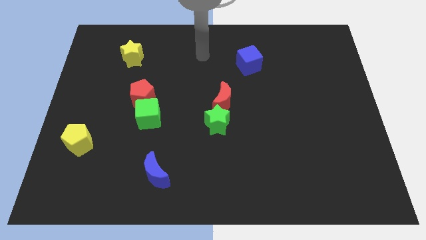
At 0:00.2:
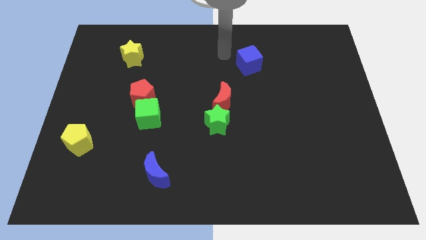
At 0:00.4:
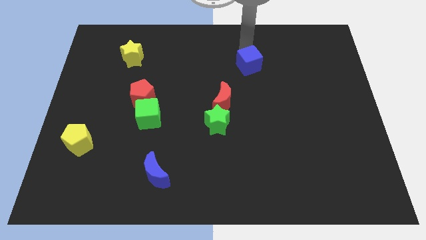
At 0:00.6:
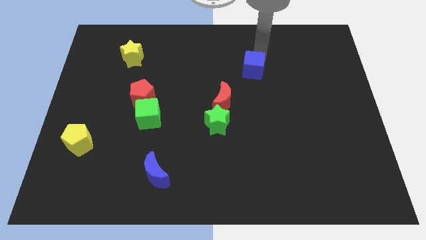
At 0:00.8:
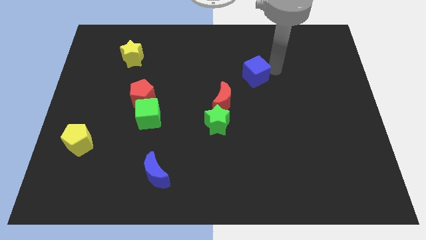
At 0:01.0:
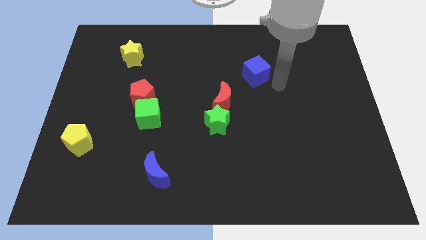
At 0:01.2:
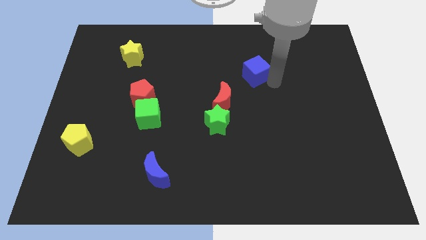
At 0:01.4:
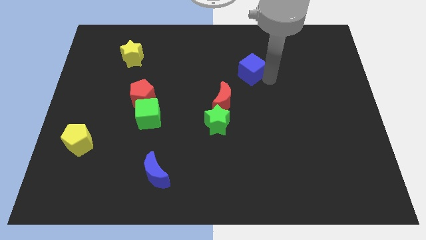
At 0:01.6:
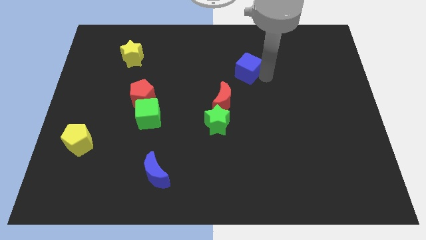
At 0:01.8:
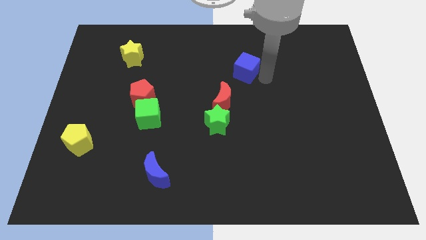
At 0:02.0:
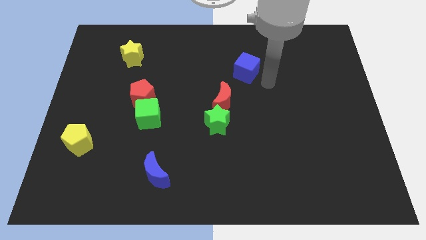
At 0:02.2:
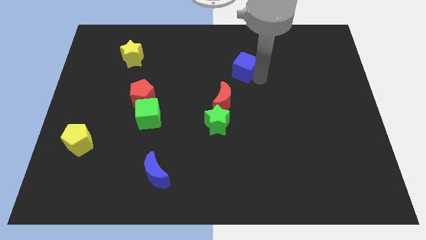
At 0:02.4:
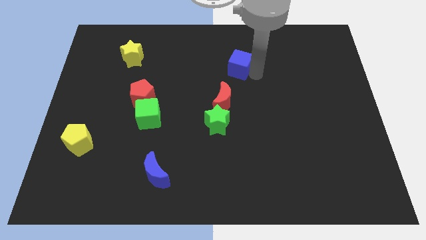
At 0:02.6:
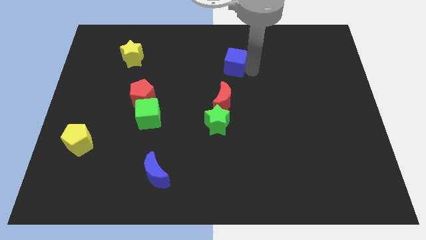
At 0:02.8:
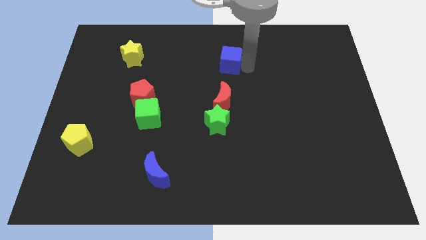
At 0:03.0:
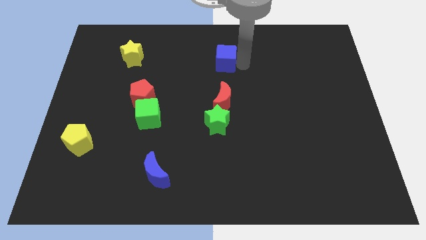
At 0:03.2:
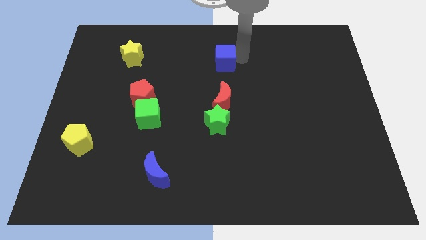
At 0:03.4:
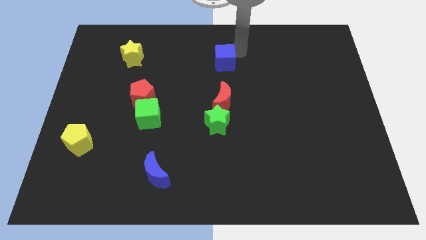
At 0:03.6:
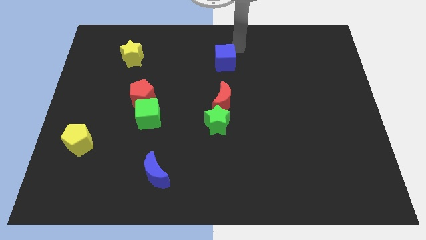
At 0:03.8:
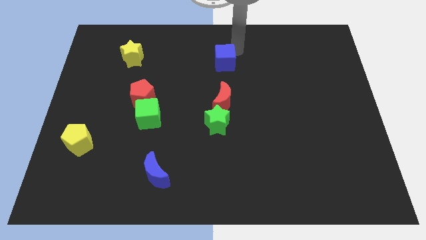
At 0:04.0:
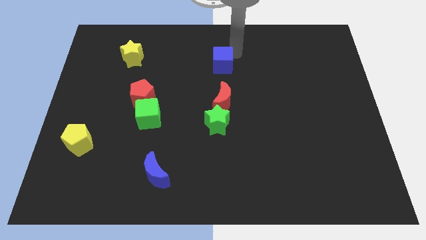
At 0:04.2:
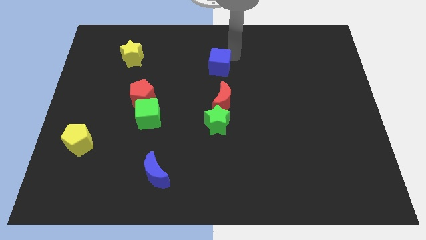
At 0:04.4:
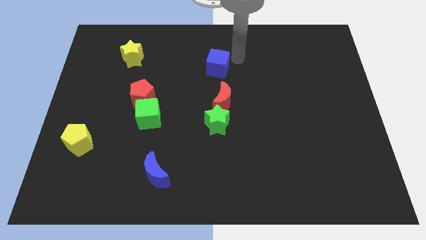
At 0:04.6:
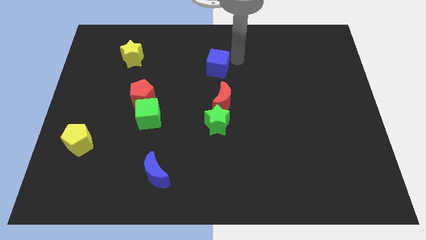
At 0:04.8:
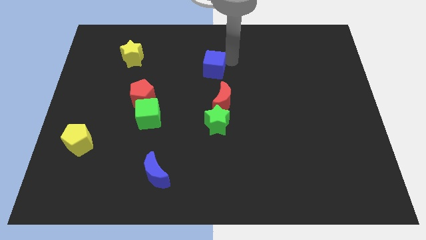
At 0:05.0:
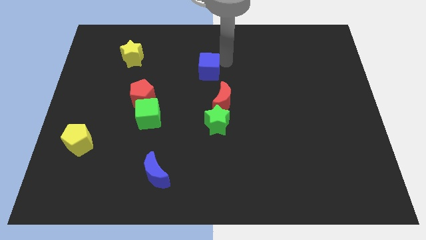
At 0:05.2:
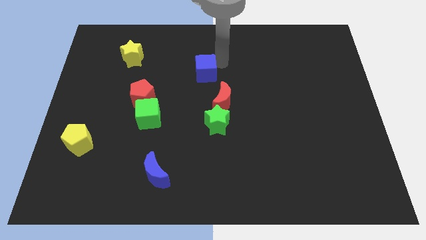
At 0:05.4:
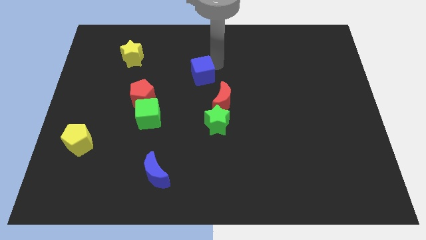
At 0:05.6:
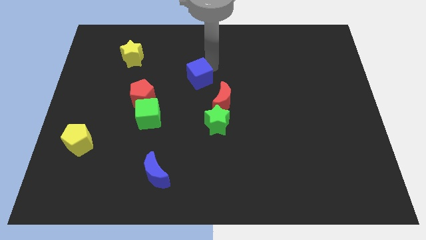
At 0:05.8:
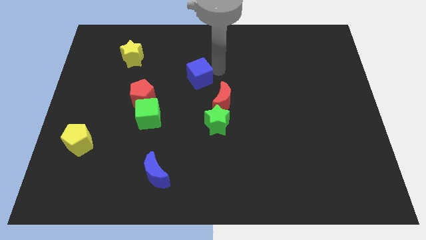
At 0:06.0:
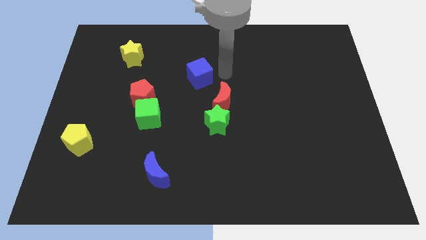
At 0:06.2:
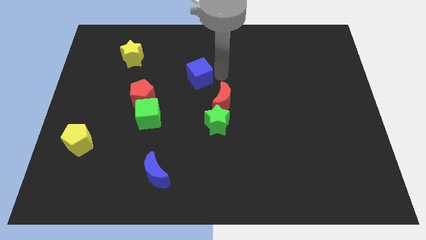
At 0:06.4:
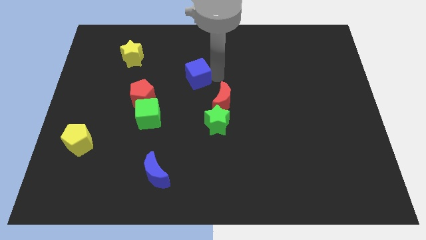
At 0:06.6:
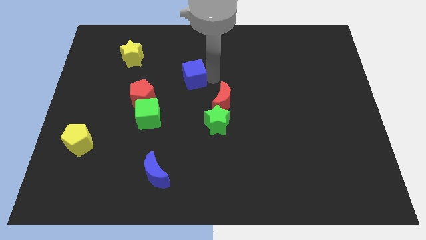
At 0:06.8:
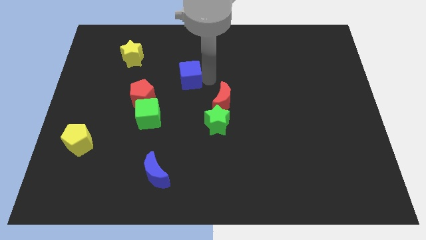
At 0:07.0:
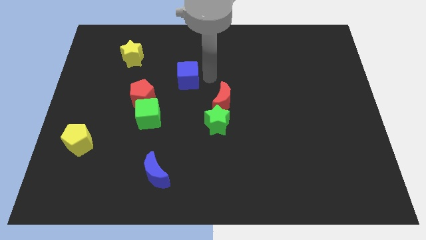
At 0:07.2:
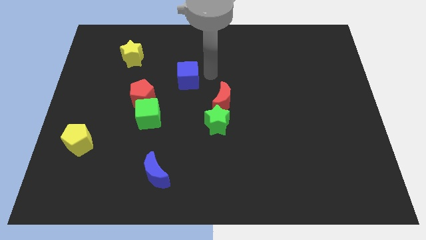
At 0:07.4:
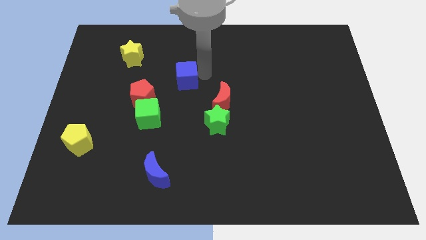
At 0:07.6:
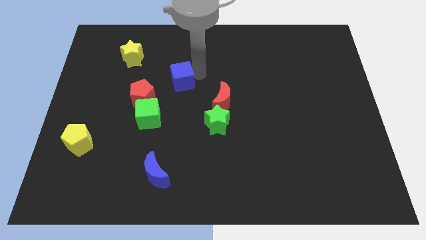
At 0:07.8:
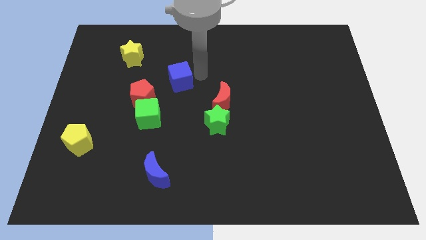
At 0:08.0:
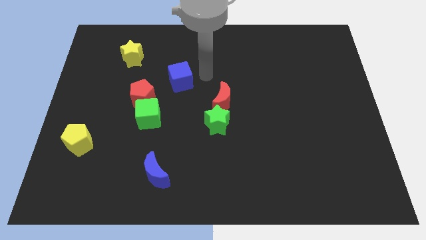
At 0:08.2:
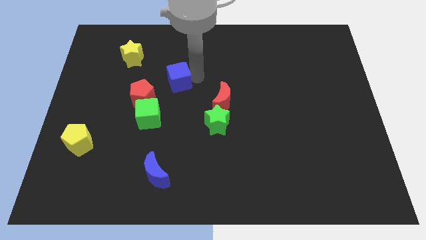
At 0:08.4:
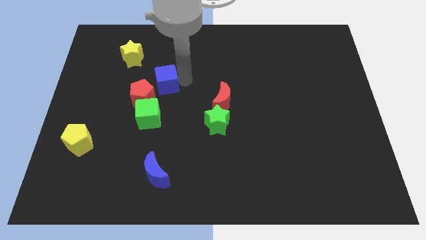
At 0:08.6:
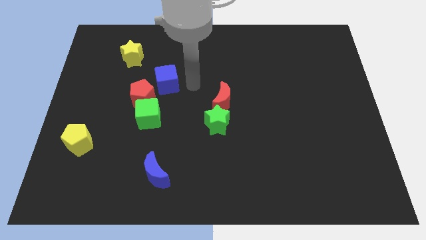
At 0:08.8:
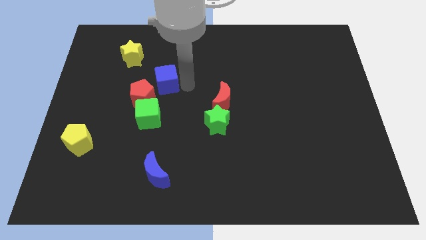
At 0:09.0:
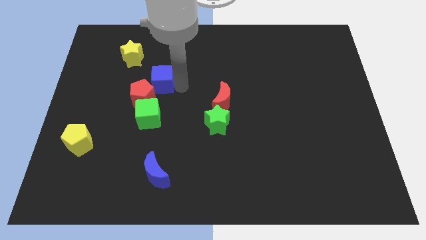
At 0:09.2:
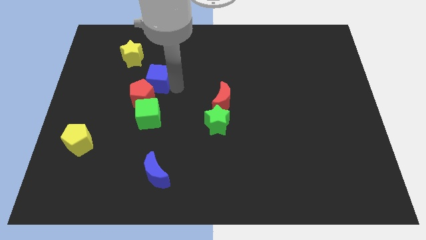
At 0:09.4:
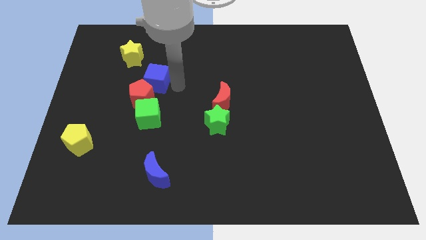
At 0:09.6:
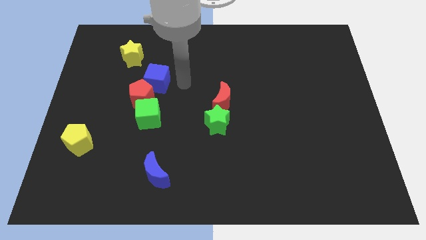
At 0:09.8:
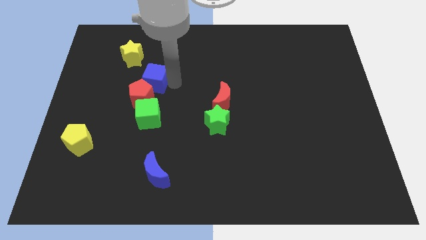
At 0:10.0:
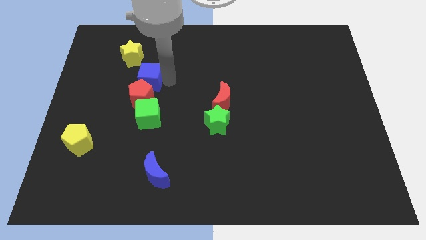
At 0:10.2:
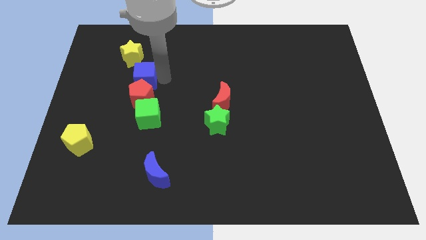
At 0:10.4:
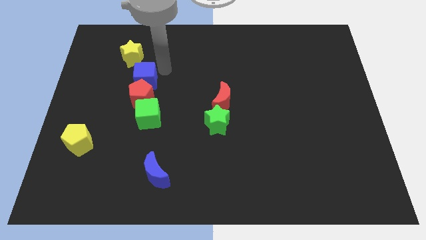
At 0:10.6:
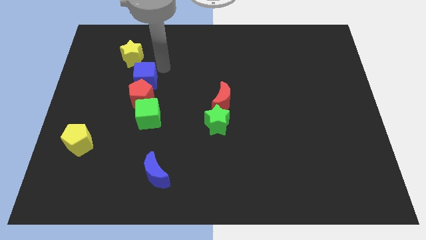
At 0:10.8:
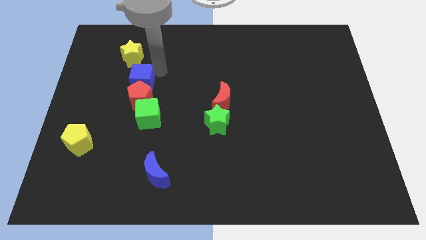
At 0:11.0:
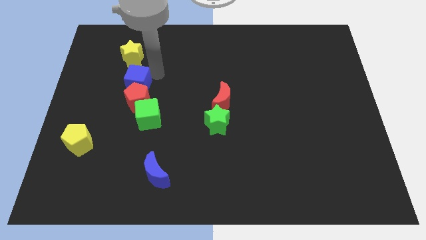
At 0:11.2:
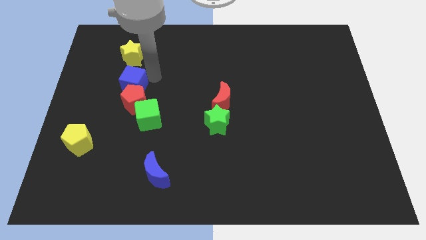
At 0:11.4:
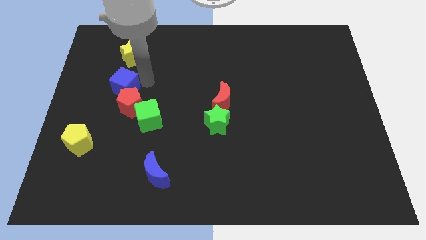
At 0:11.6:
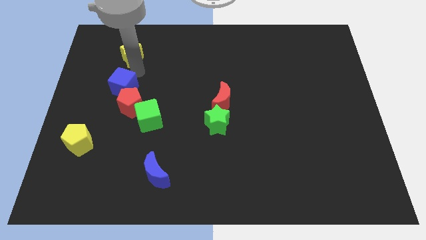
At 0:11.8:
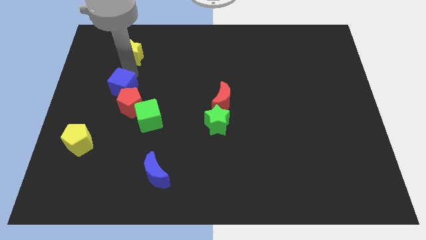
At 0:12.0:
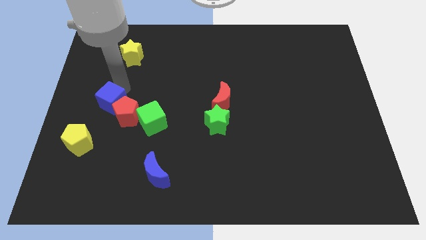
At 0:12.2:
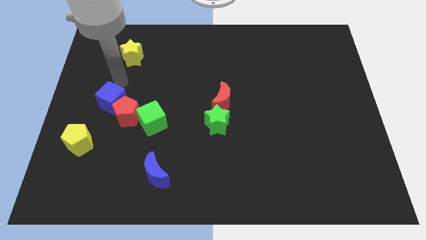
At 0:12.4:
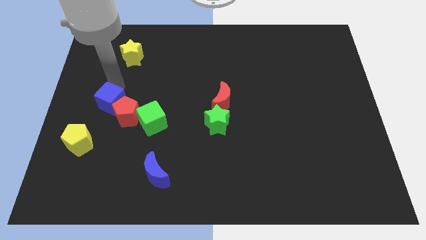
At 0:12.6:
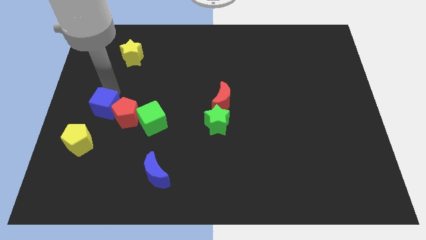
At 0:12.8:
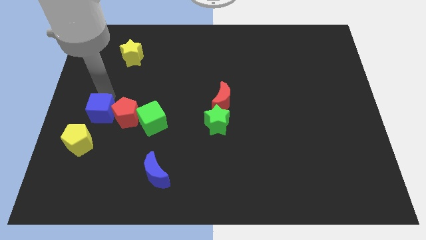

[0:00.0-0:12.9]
push the blue cube to the bottom left side of the red pentagon
